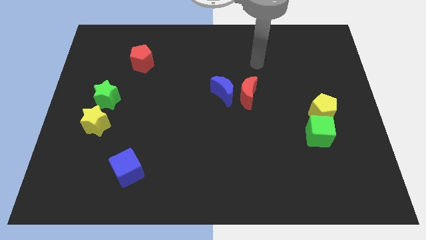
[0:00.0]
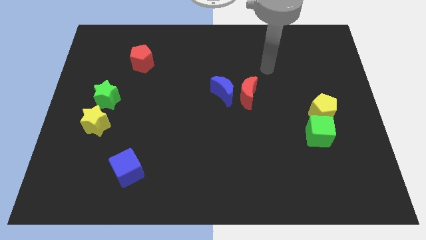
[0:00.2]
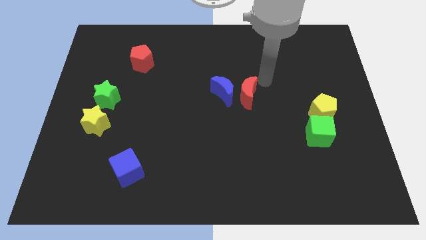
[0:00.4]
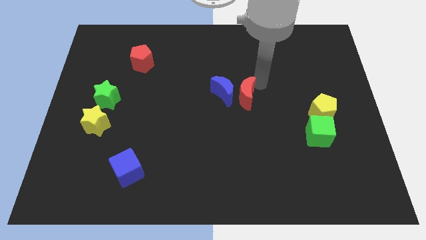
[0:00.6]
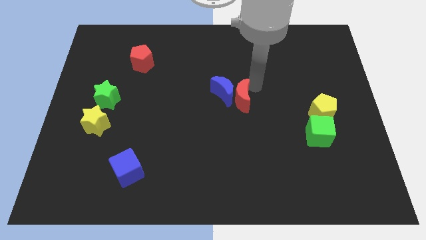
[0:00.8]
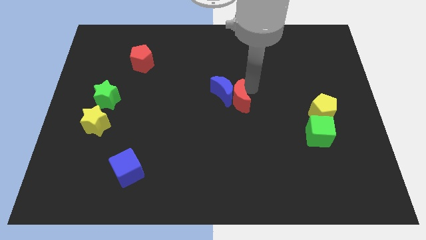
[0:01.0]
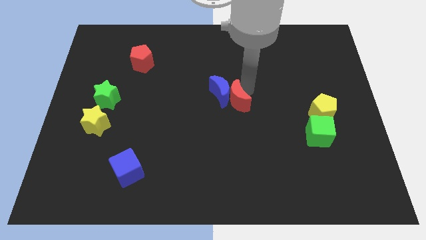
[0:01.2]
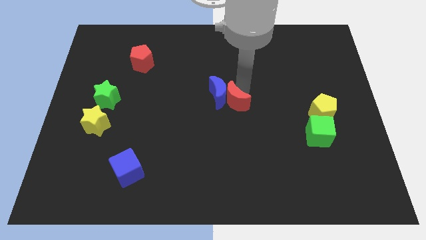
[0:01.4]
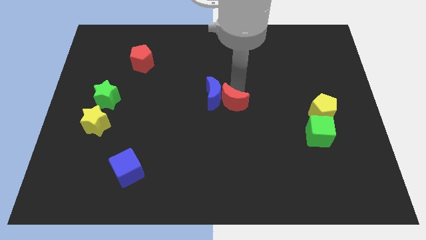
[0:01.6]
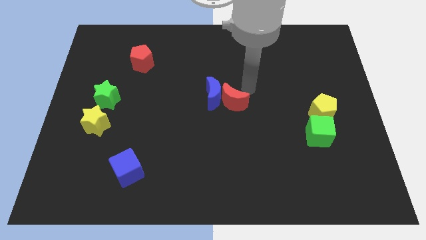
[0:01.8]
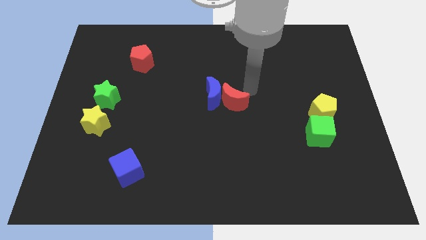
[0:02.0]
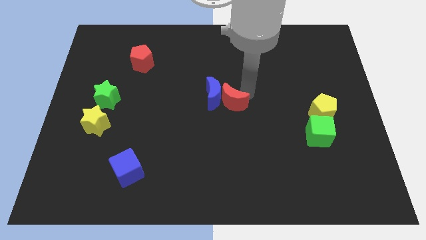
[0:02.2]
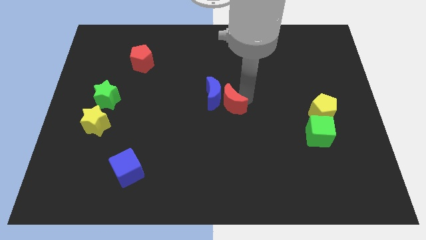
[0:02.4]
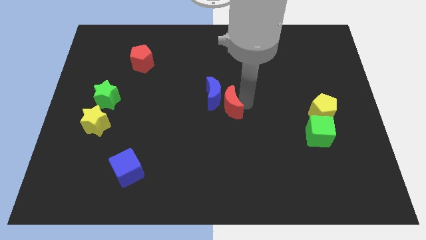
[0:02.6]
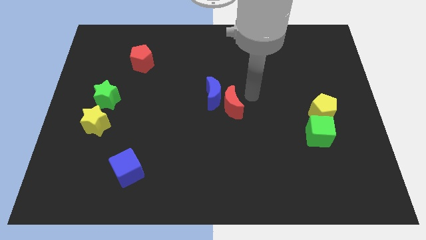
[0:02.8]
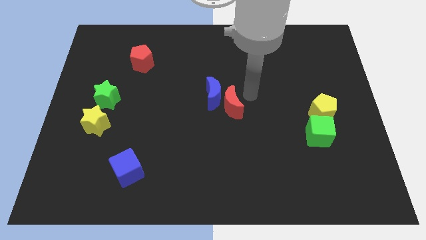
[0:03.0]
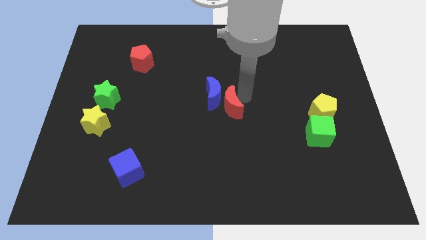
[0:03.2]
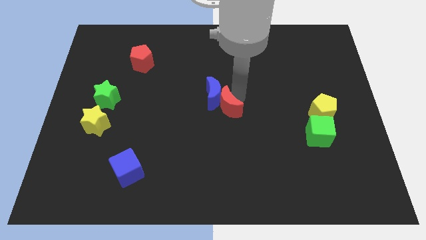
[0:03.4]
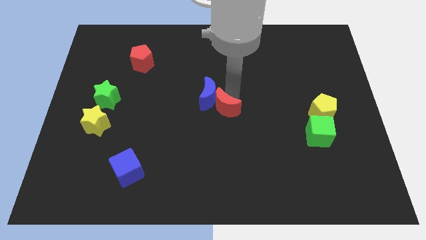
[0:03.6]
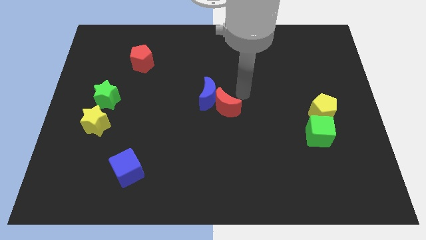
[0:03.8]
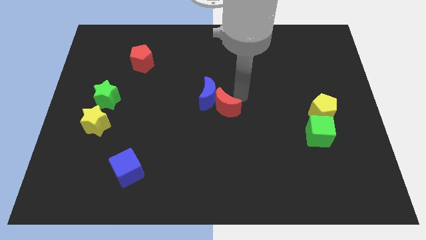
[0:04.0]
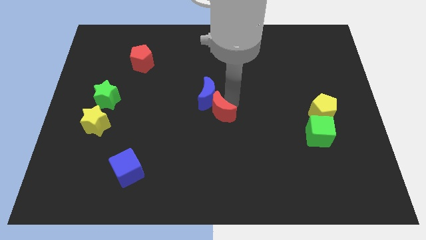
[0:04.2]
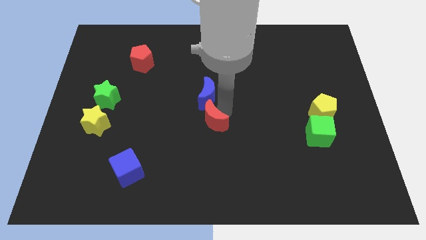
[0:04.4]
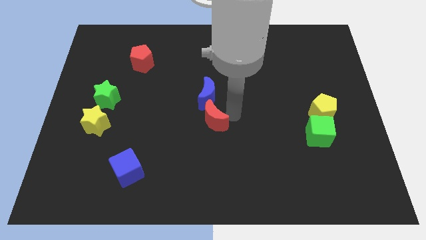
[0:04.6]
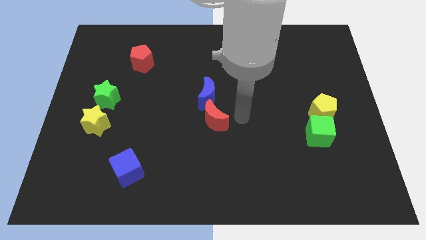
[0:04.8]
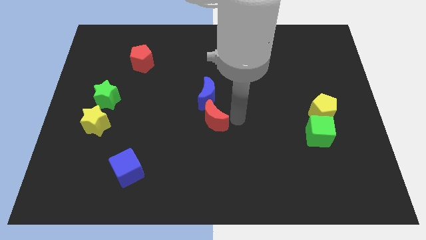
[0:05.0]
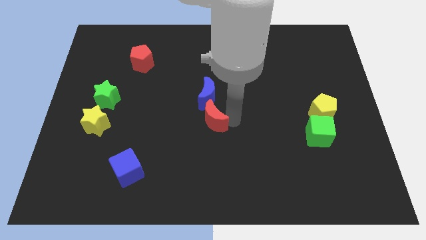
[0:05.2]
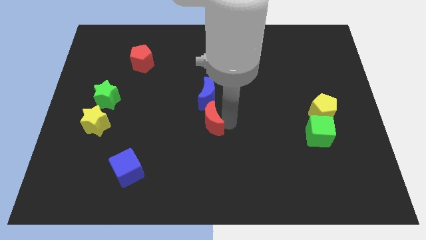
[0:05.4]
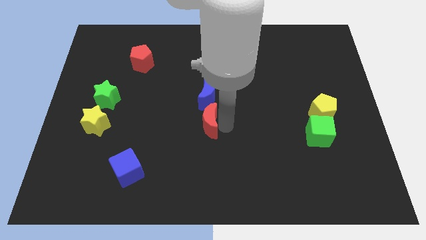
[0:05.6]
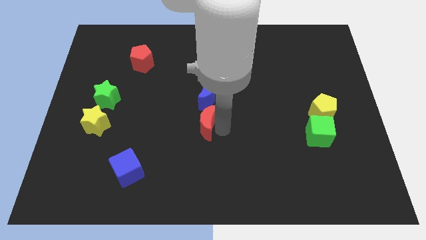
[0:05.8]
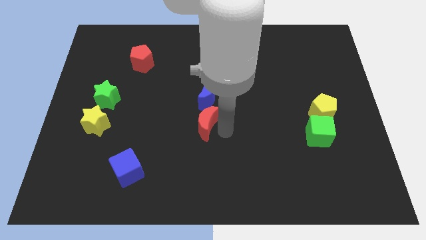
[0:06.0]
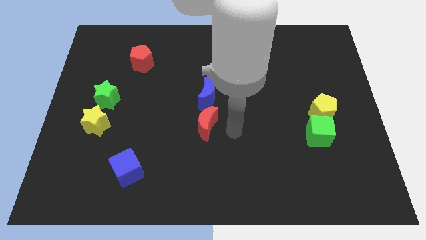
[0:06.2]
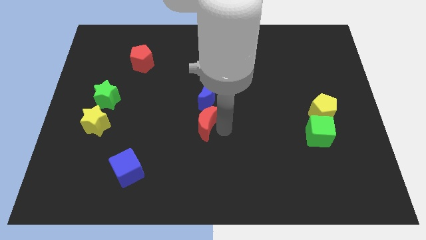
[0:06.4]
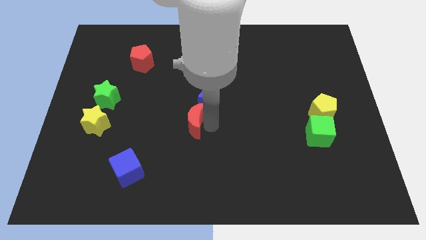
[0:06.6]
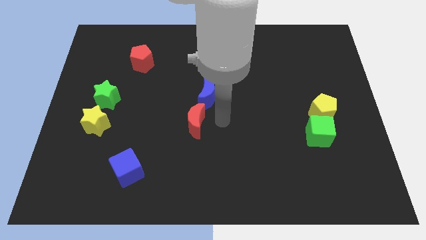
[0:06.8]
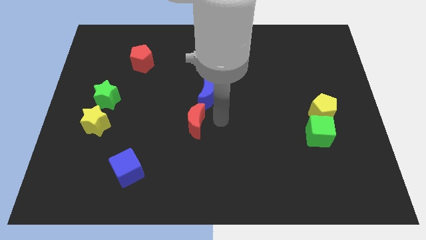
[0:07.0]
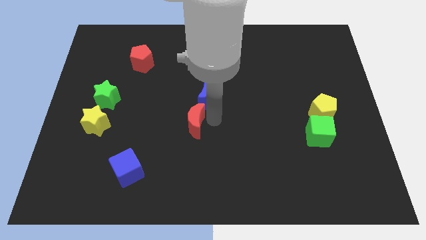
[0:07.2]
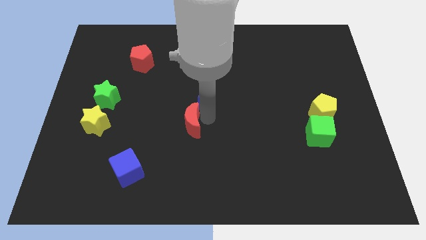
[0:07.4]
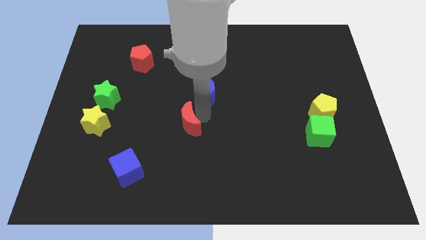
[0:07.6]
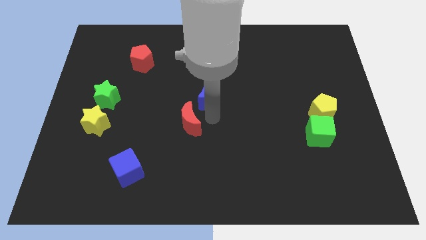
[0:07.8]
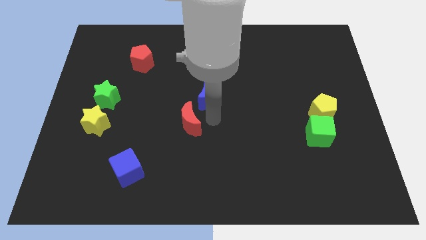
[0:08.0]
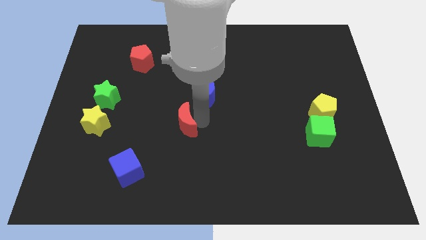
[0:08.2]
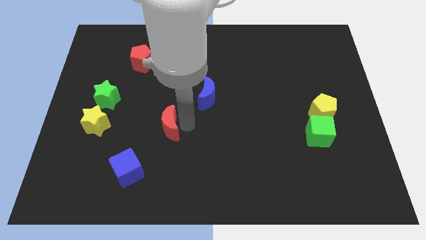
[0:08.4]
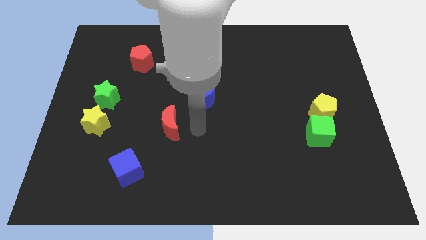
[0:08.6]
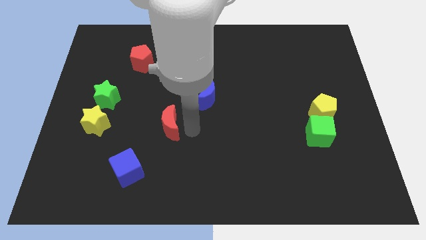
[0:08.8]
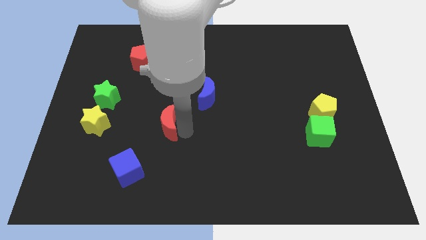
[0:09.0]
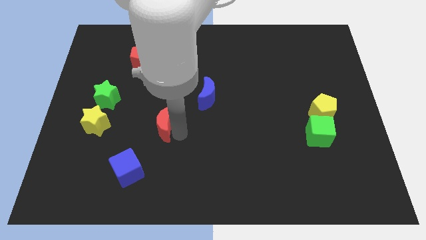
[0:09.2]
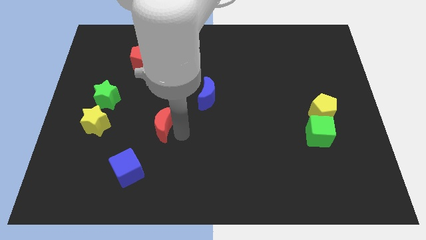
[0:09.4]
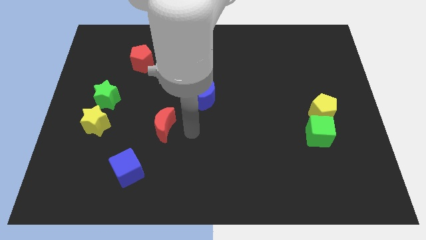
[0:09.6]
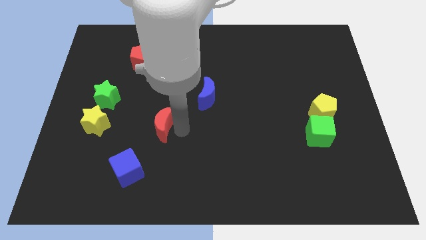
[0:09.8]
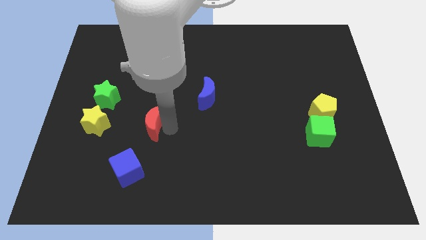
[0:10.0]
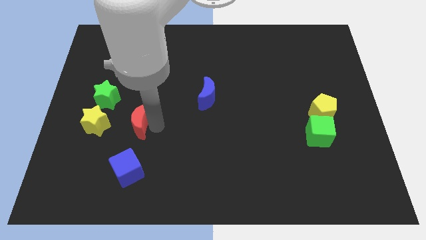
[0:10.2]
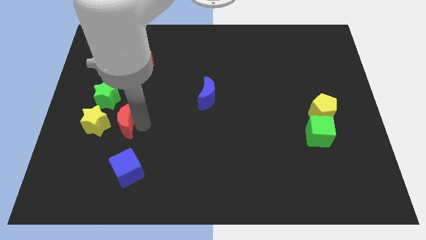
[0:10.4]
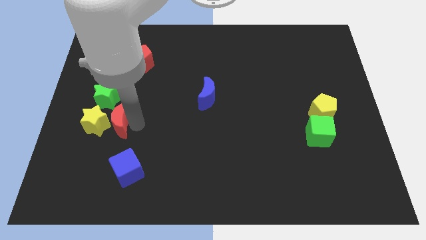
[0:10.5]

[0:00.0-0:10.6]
slide the red moon towards the yellow star

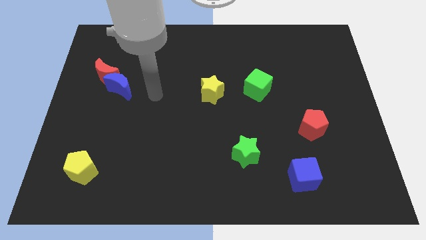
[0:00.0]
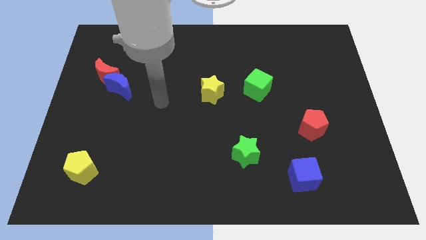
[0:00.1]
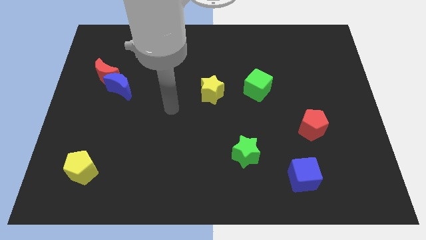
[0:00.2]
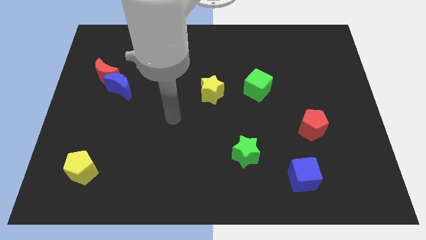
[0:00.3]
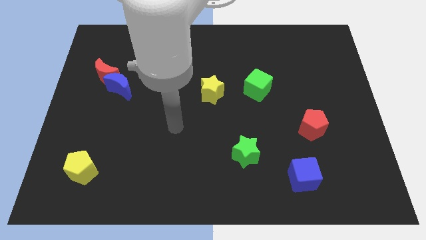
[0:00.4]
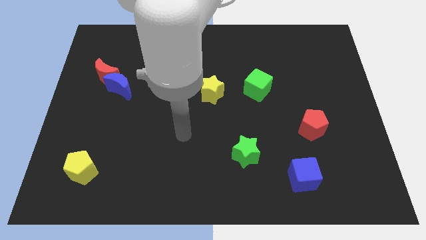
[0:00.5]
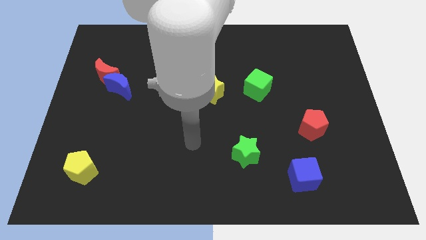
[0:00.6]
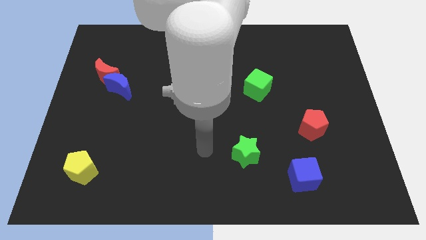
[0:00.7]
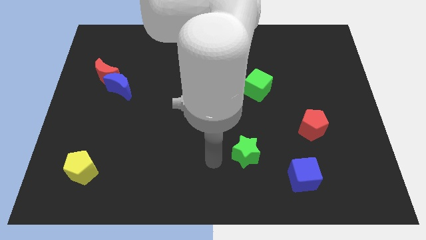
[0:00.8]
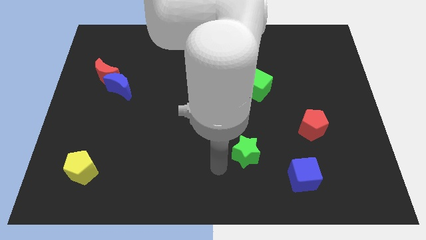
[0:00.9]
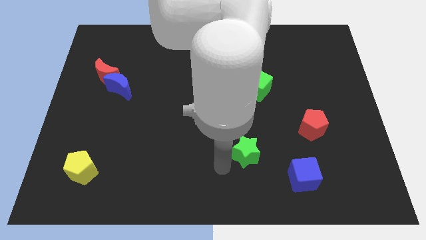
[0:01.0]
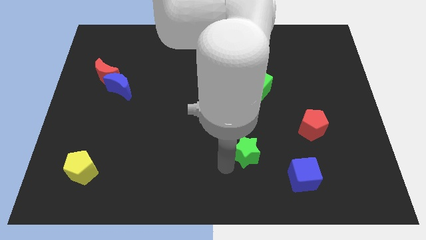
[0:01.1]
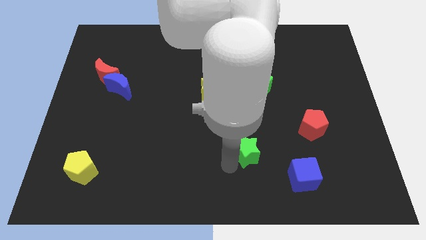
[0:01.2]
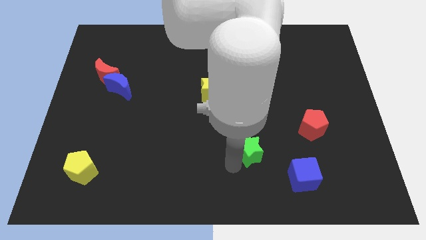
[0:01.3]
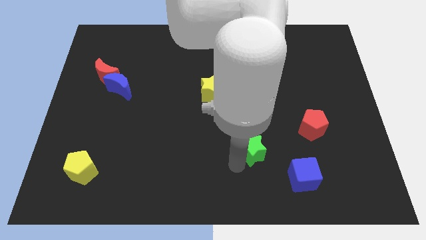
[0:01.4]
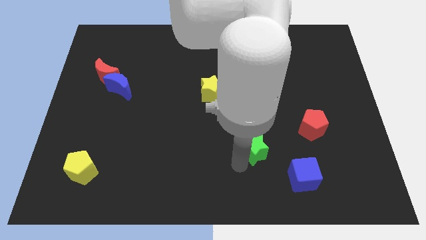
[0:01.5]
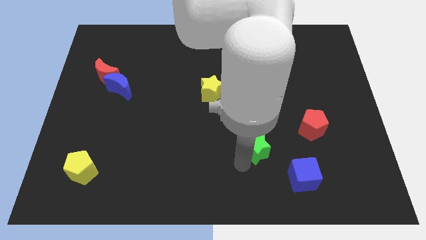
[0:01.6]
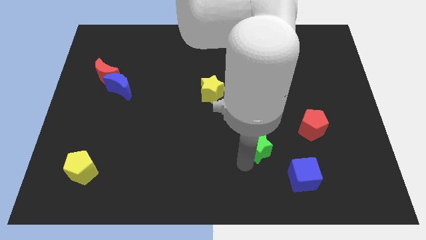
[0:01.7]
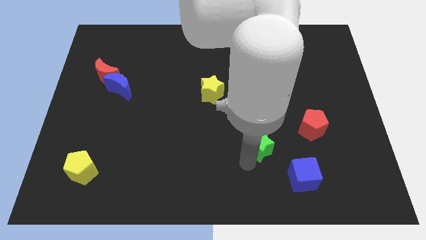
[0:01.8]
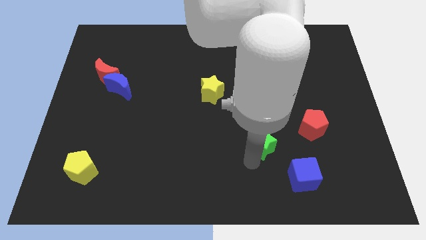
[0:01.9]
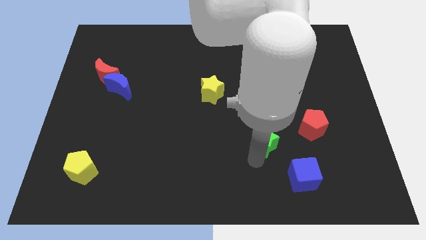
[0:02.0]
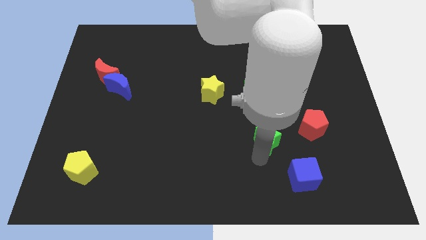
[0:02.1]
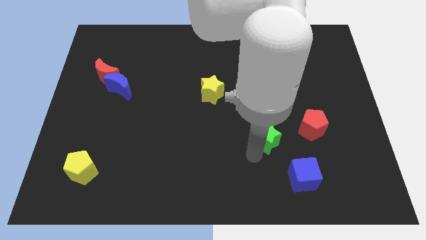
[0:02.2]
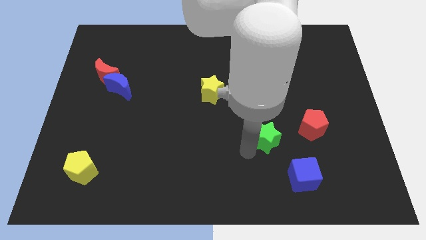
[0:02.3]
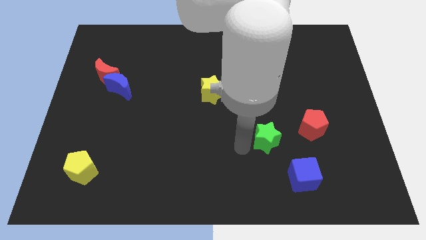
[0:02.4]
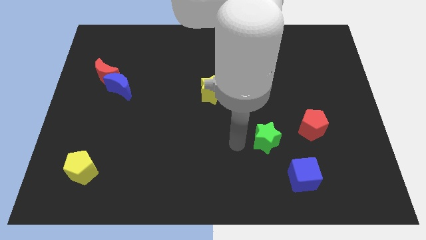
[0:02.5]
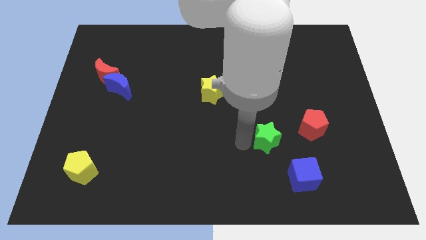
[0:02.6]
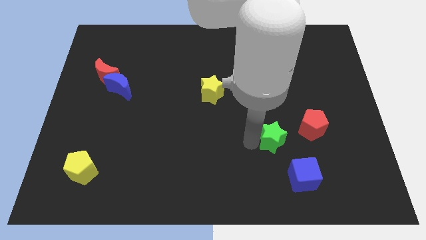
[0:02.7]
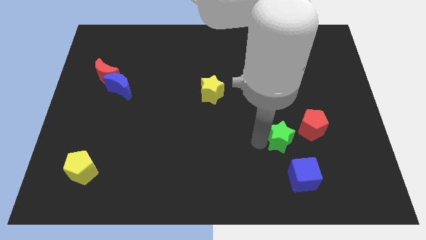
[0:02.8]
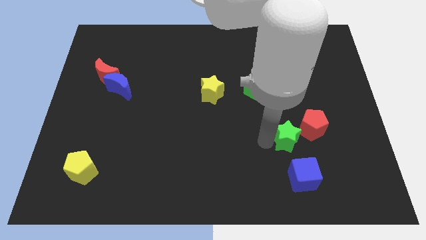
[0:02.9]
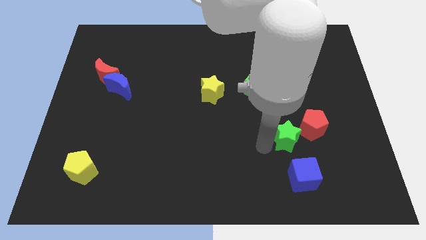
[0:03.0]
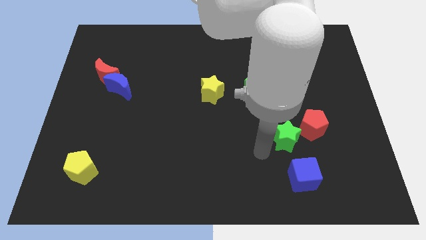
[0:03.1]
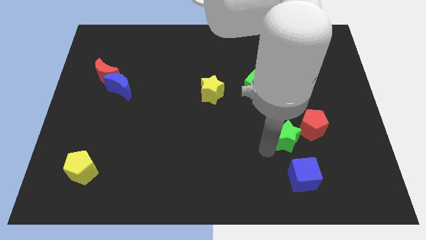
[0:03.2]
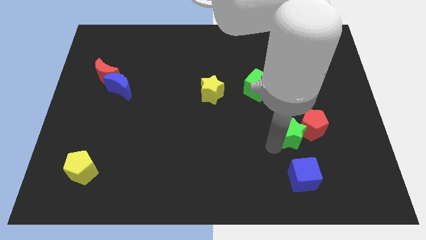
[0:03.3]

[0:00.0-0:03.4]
put the green star towards the red pentagon
